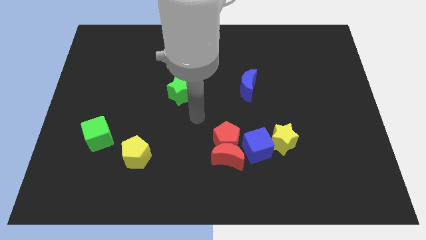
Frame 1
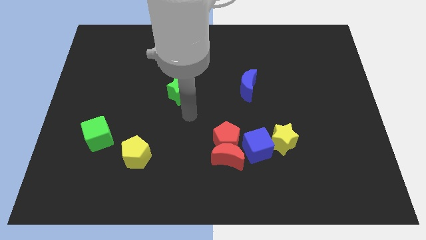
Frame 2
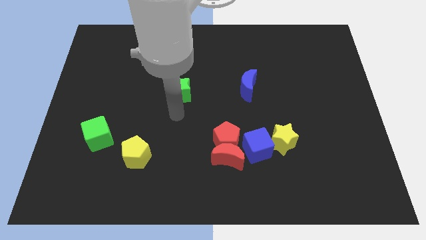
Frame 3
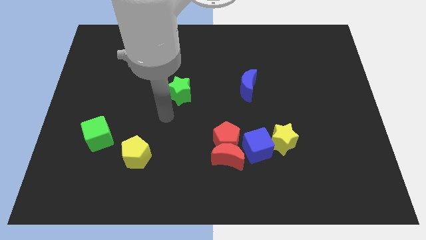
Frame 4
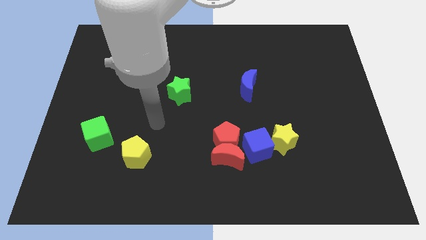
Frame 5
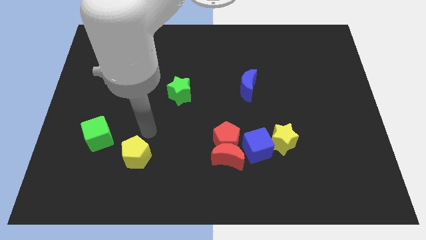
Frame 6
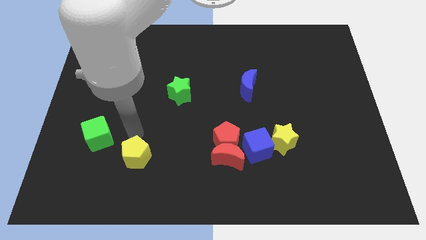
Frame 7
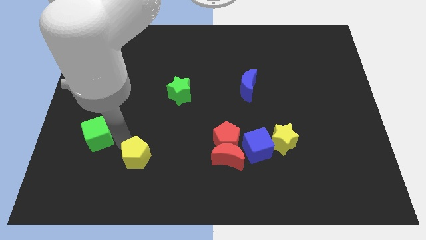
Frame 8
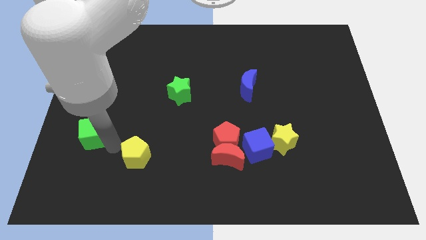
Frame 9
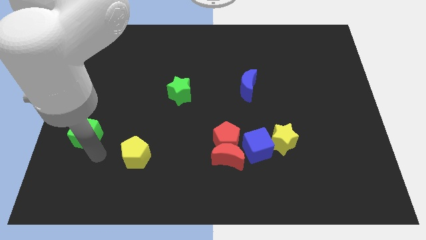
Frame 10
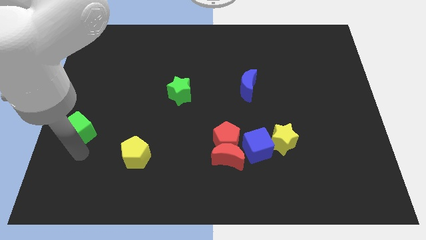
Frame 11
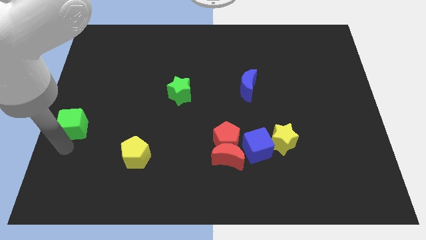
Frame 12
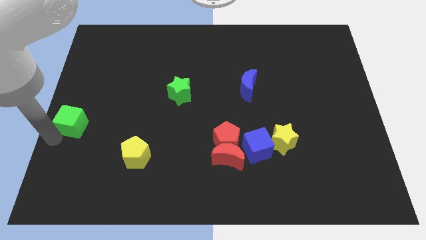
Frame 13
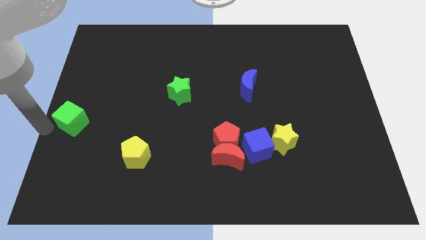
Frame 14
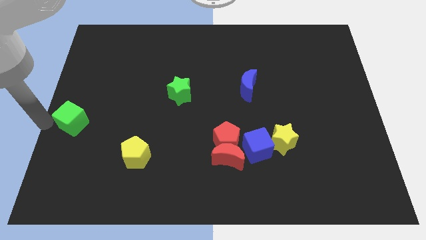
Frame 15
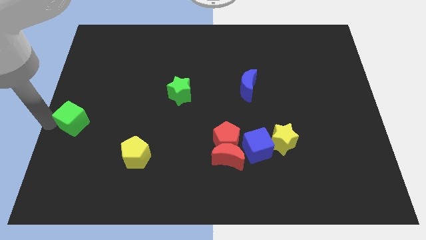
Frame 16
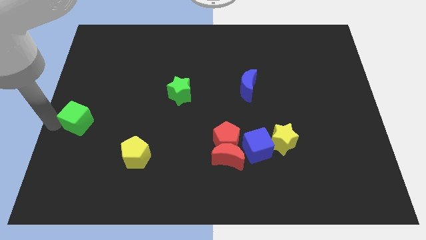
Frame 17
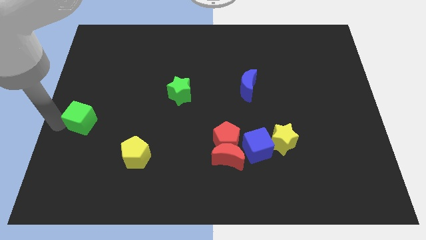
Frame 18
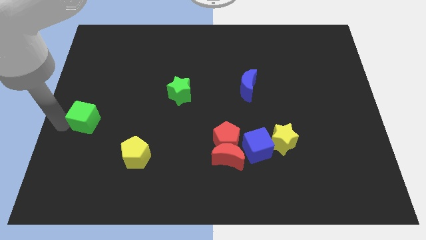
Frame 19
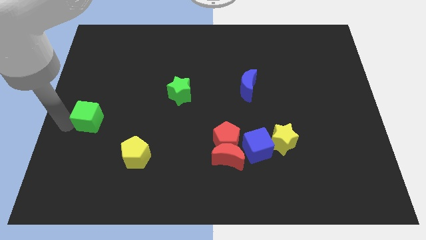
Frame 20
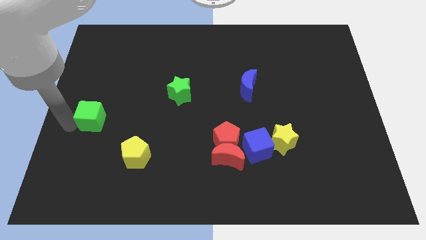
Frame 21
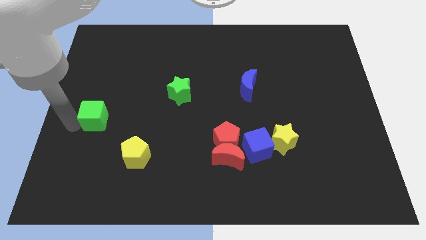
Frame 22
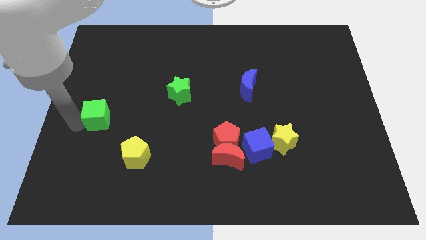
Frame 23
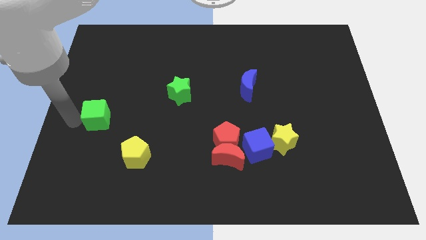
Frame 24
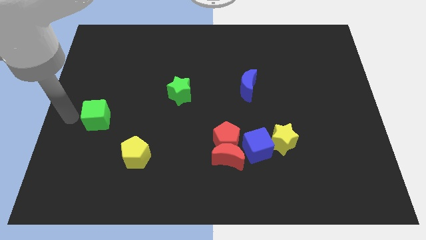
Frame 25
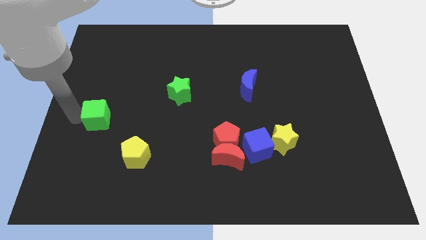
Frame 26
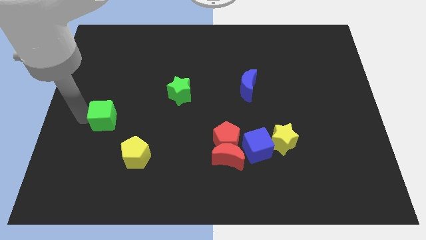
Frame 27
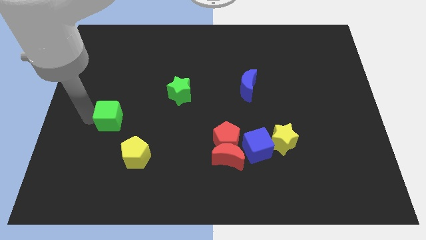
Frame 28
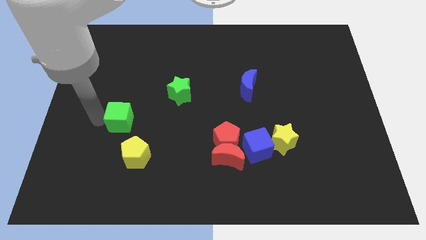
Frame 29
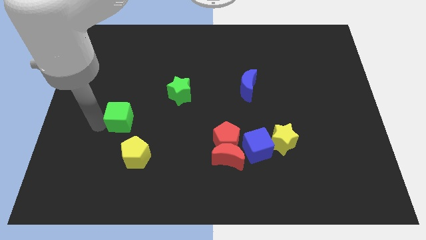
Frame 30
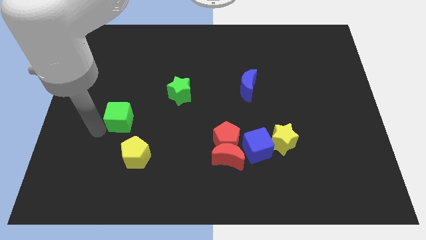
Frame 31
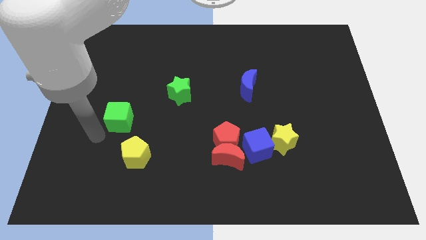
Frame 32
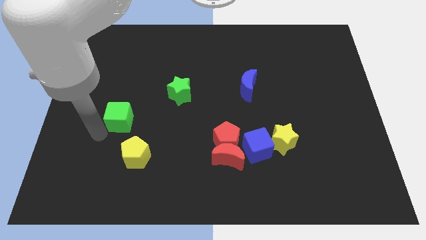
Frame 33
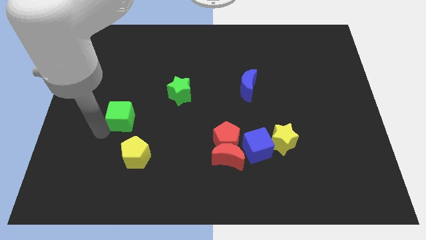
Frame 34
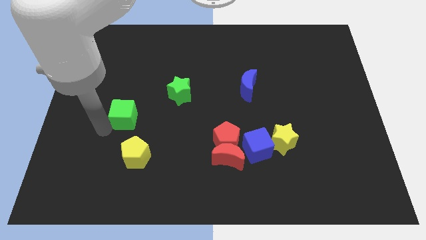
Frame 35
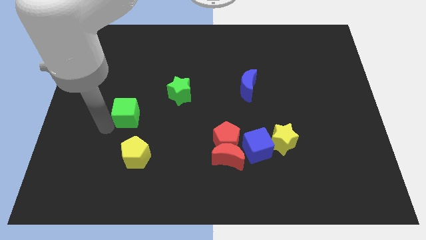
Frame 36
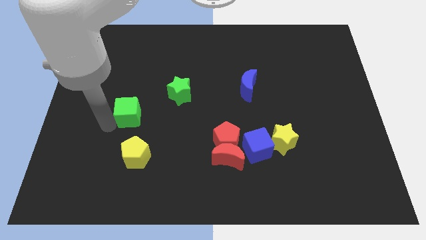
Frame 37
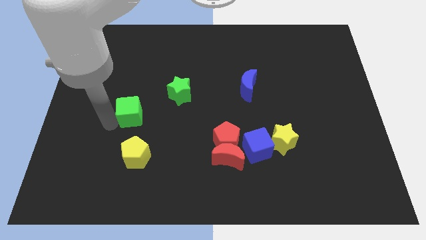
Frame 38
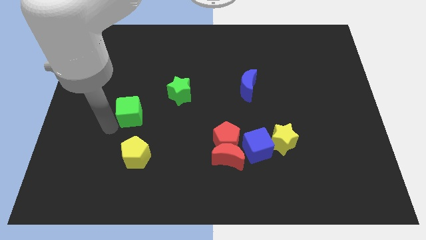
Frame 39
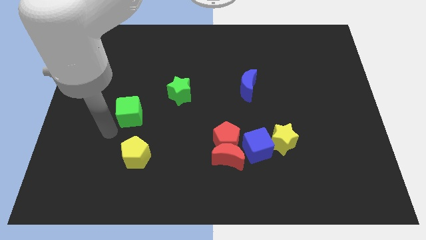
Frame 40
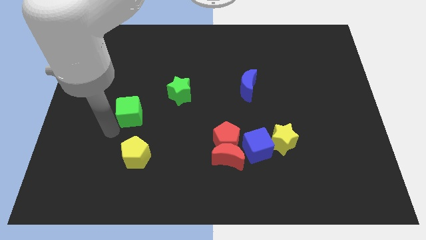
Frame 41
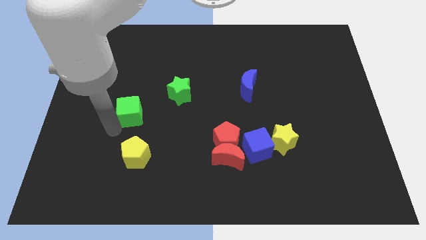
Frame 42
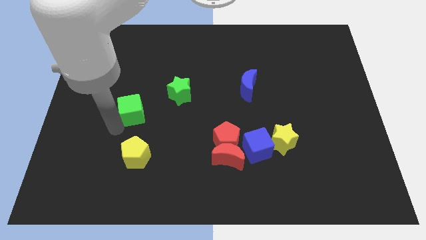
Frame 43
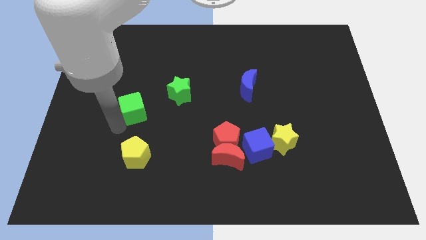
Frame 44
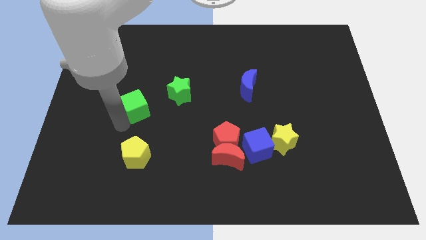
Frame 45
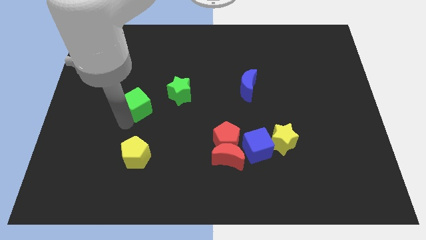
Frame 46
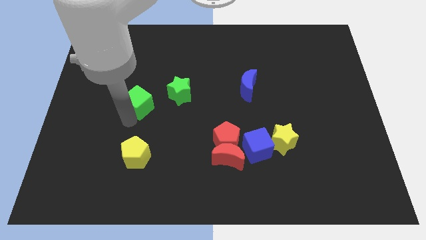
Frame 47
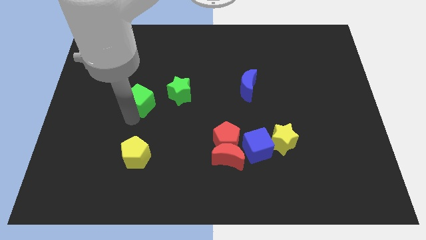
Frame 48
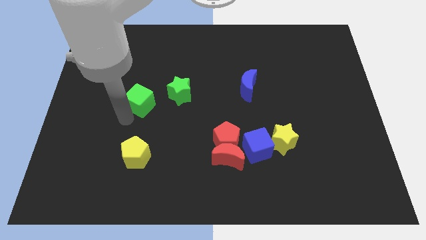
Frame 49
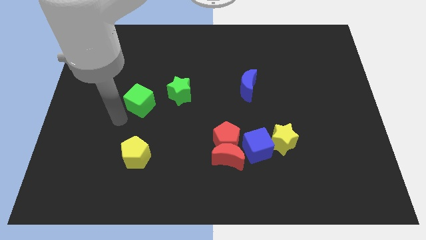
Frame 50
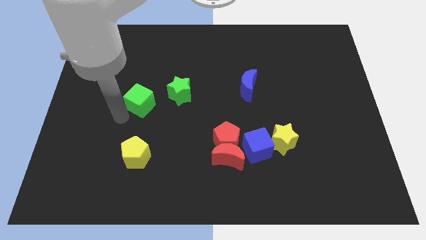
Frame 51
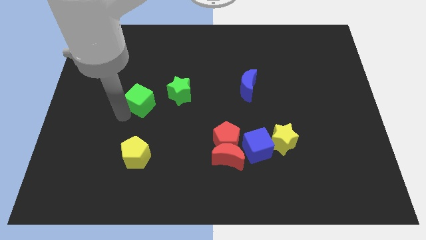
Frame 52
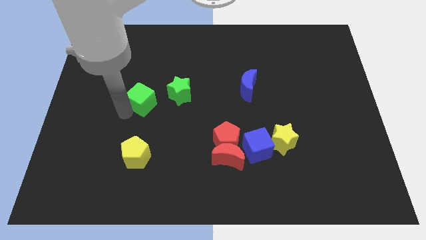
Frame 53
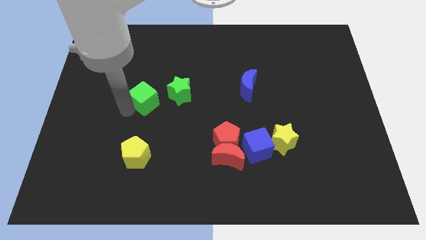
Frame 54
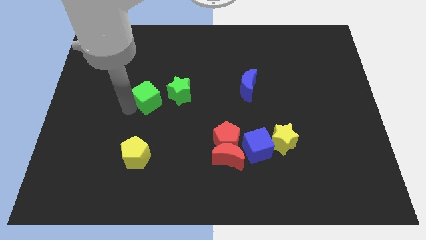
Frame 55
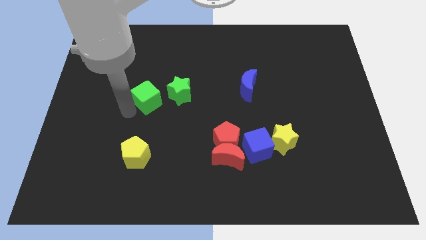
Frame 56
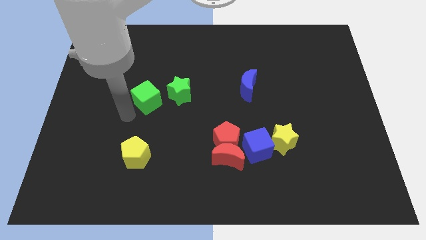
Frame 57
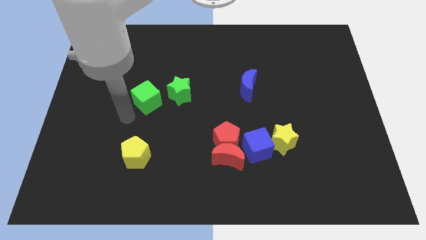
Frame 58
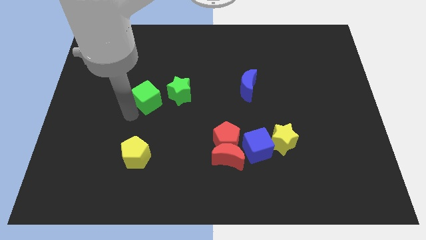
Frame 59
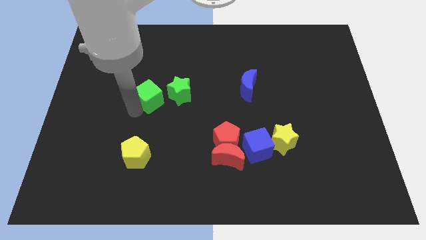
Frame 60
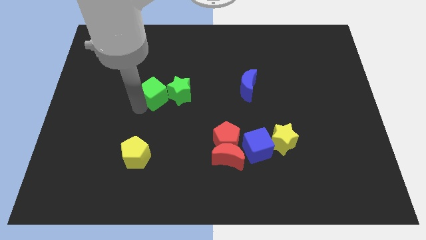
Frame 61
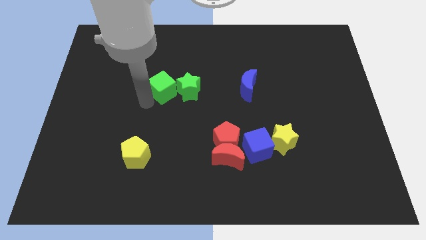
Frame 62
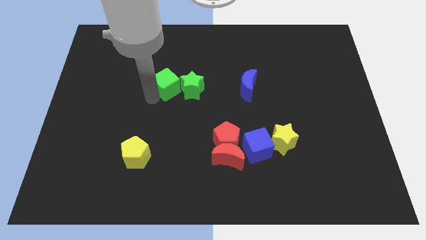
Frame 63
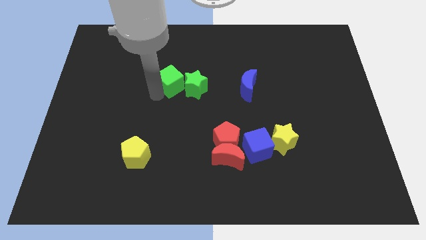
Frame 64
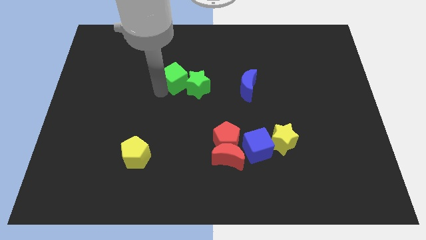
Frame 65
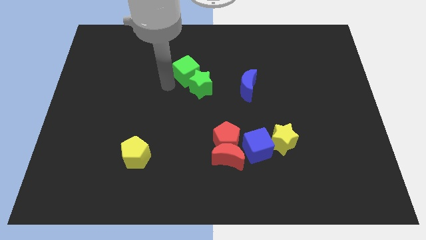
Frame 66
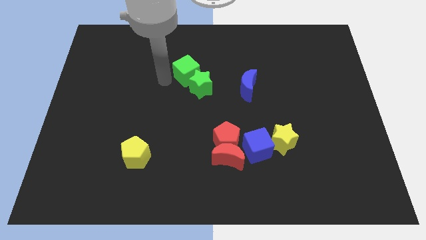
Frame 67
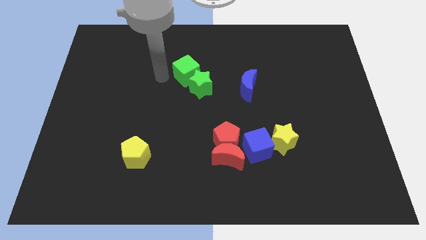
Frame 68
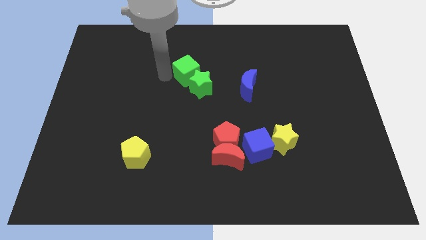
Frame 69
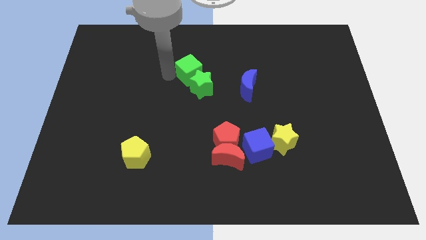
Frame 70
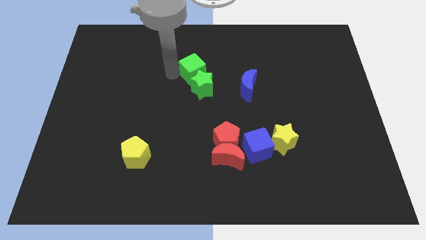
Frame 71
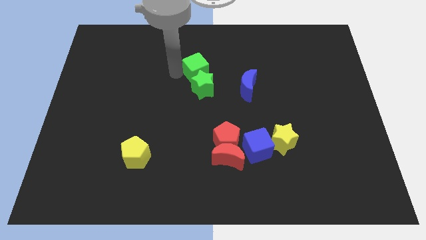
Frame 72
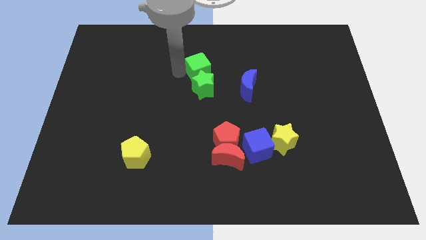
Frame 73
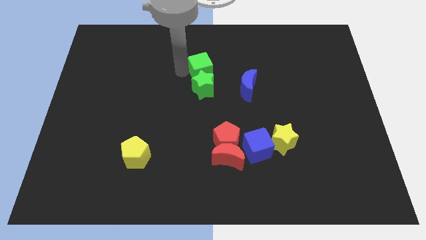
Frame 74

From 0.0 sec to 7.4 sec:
put the green cube diagonally up and to the right of the green star
